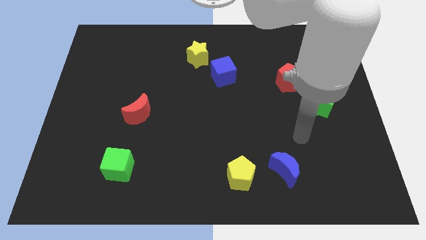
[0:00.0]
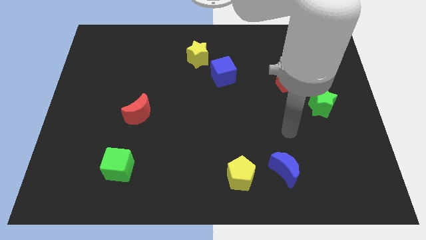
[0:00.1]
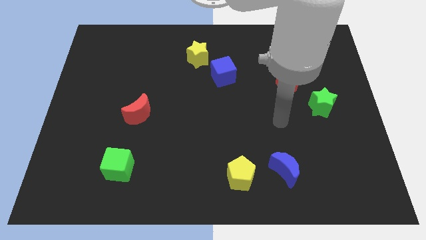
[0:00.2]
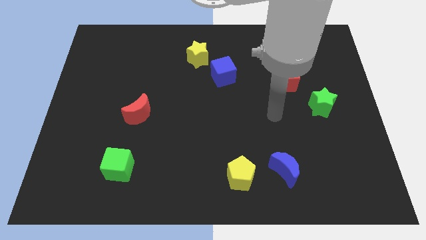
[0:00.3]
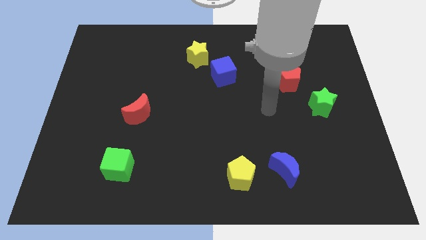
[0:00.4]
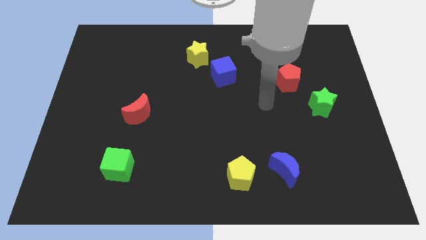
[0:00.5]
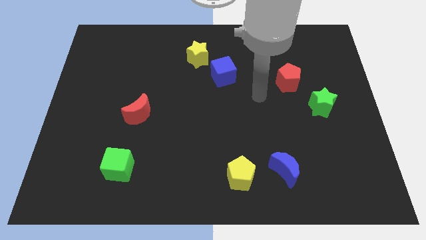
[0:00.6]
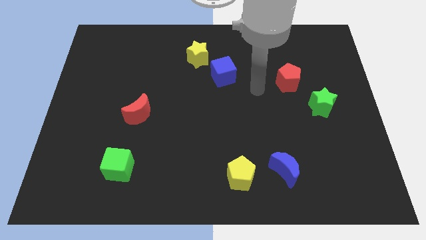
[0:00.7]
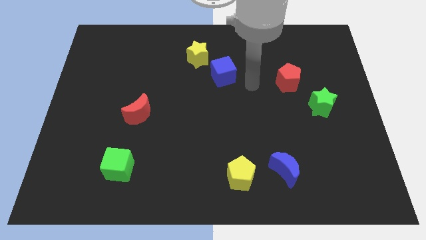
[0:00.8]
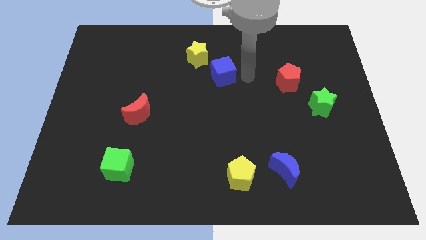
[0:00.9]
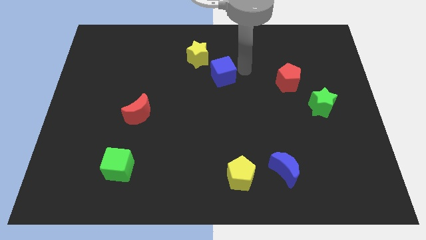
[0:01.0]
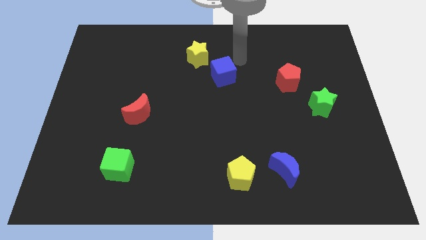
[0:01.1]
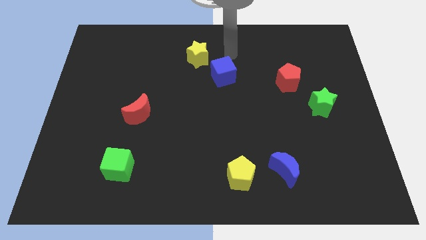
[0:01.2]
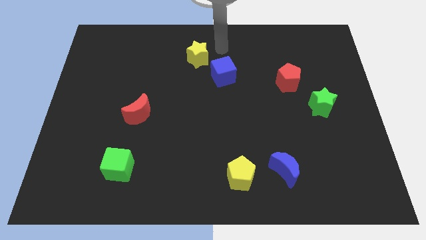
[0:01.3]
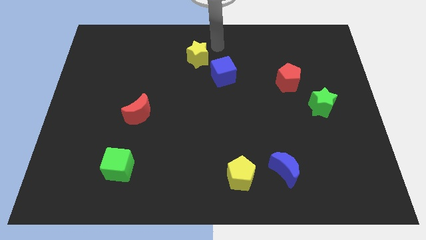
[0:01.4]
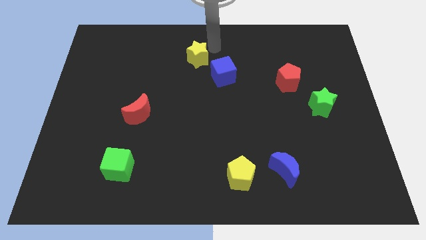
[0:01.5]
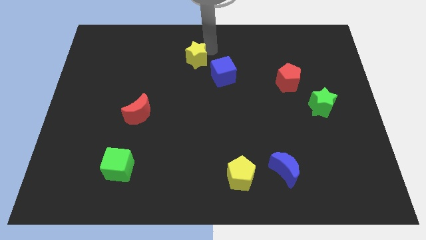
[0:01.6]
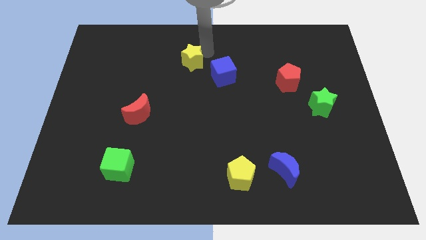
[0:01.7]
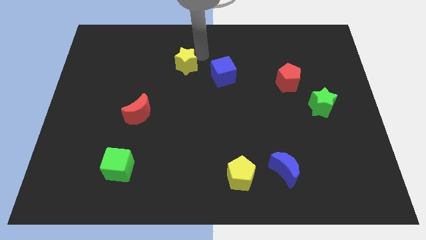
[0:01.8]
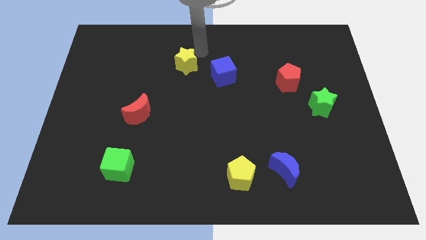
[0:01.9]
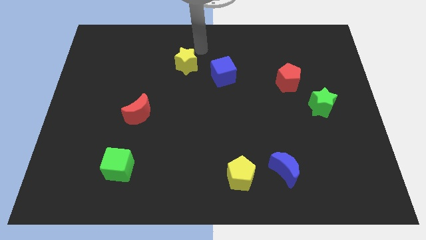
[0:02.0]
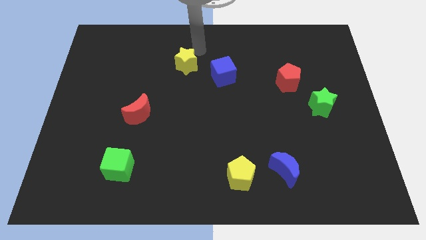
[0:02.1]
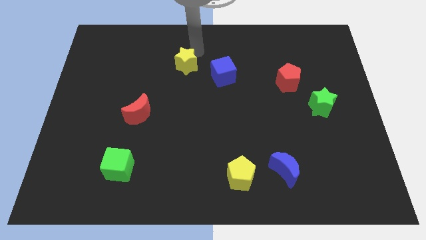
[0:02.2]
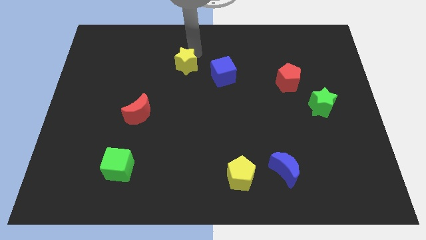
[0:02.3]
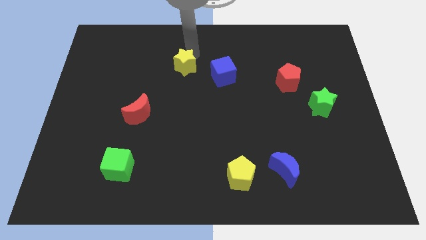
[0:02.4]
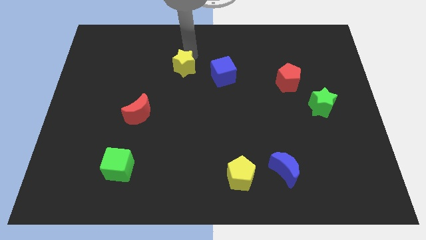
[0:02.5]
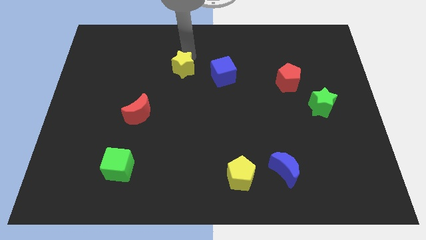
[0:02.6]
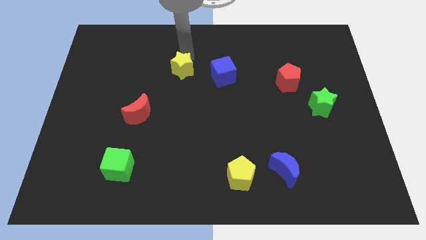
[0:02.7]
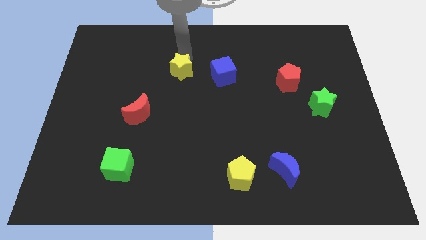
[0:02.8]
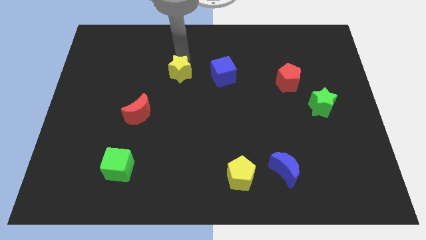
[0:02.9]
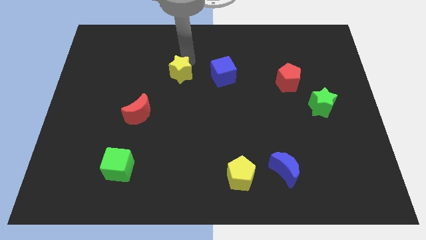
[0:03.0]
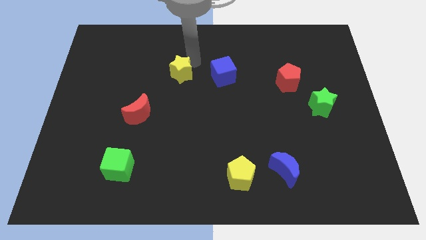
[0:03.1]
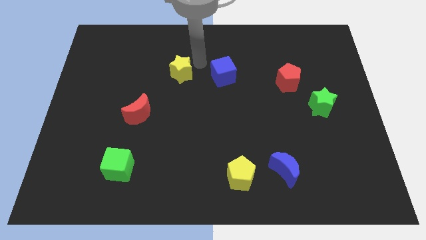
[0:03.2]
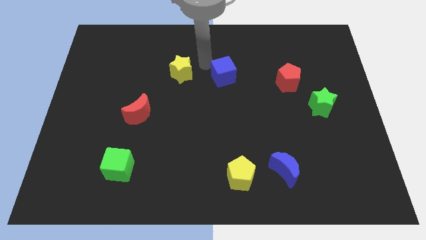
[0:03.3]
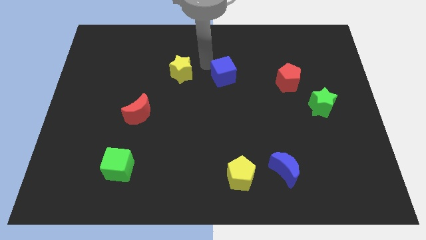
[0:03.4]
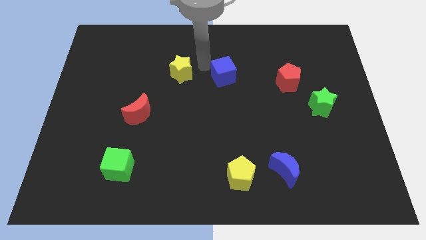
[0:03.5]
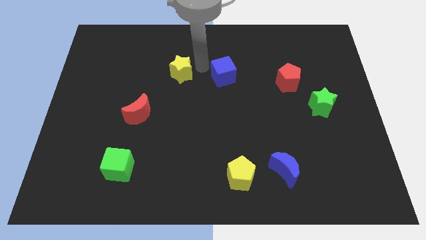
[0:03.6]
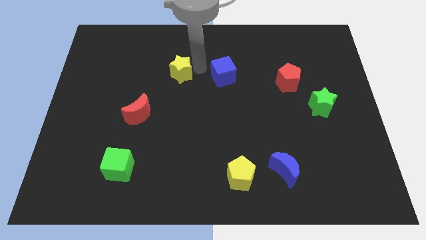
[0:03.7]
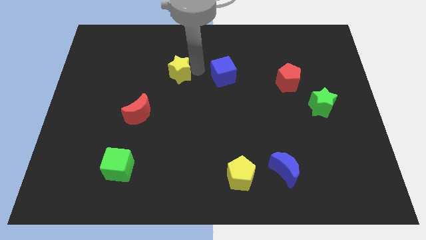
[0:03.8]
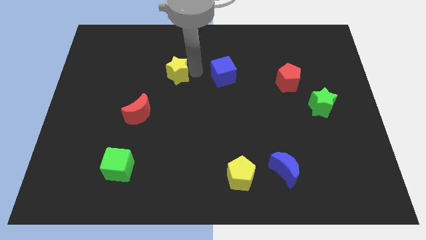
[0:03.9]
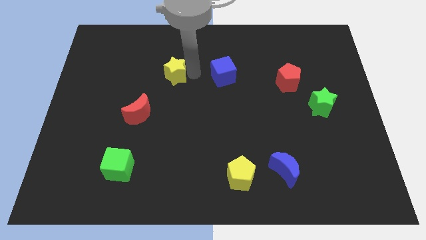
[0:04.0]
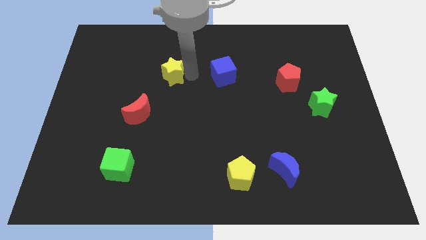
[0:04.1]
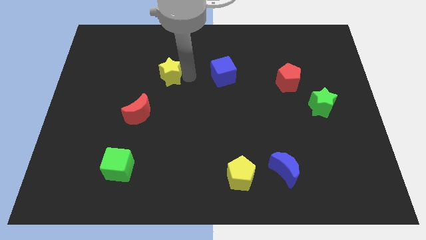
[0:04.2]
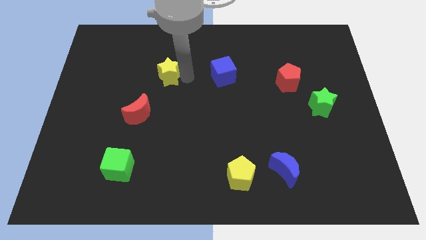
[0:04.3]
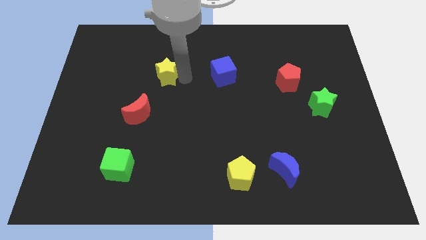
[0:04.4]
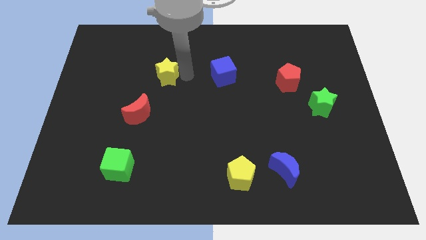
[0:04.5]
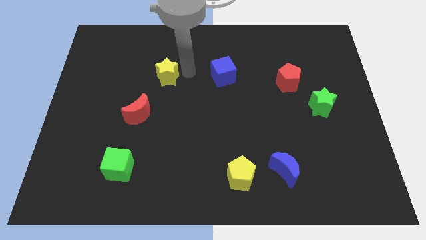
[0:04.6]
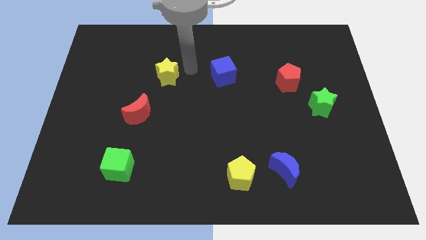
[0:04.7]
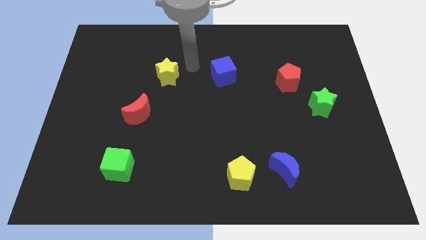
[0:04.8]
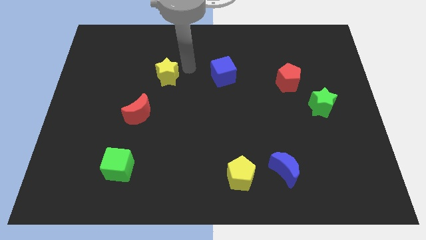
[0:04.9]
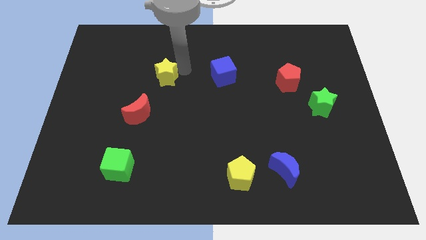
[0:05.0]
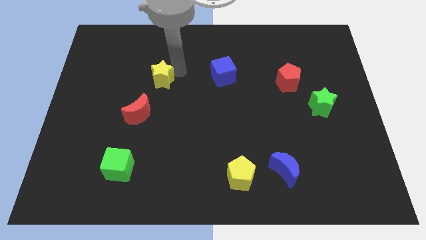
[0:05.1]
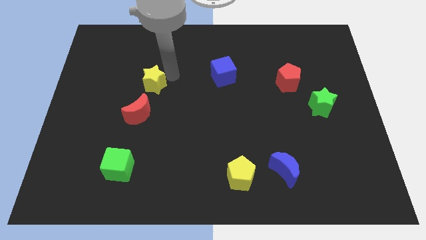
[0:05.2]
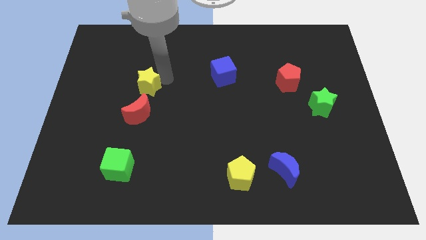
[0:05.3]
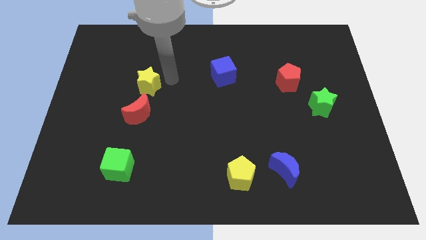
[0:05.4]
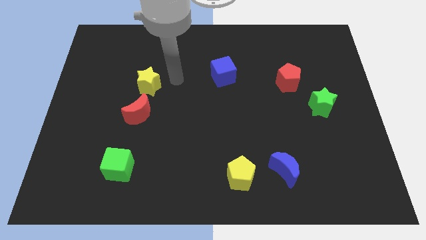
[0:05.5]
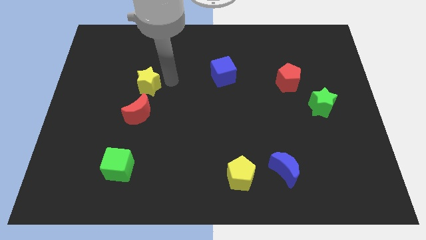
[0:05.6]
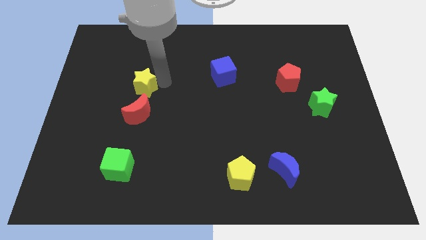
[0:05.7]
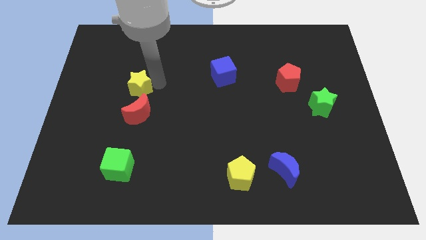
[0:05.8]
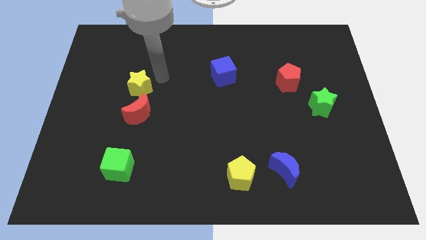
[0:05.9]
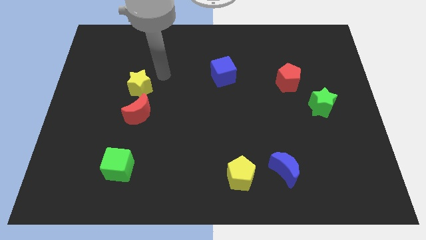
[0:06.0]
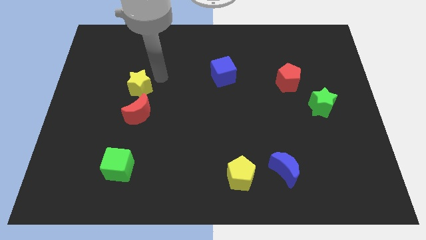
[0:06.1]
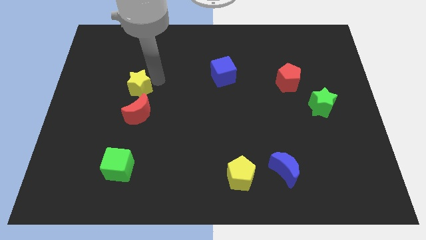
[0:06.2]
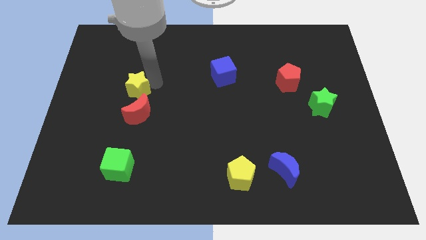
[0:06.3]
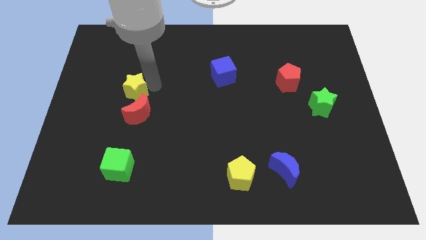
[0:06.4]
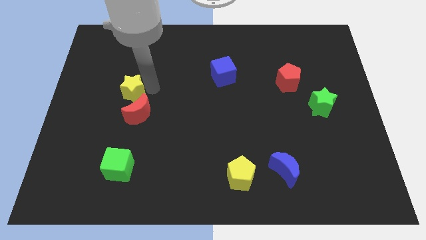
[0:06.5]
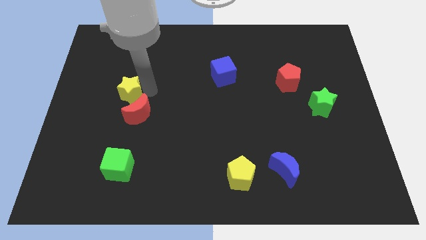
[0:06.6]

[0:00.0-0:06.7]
move the yellow star downwards and left diagonally

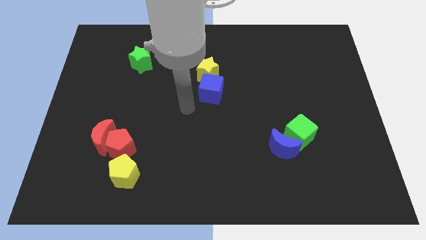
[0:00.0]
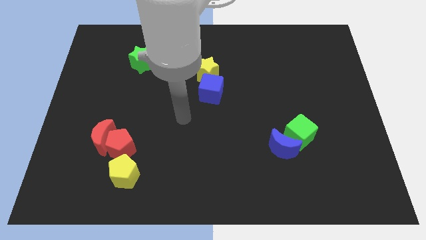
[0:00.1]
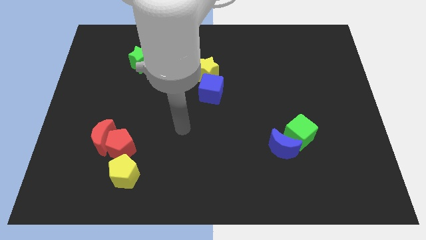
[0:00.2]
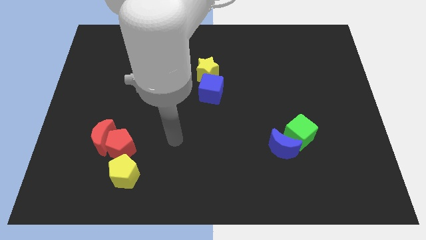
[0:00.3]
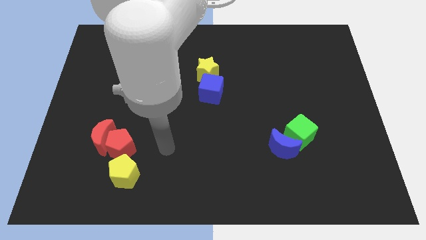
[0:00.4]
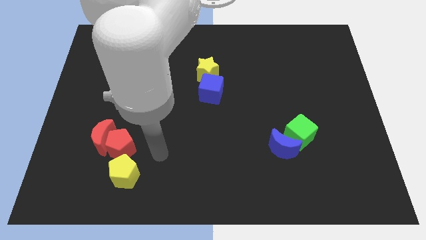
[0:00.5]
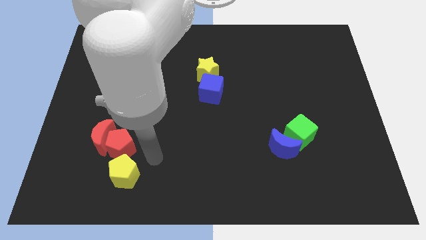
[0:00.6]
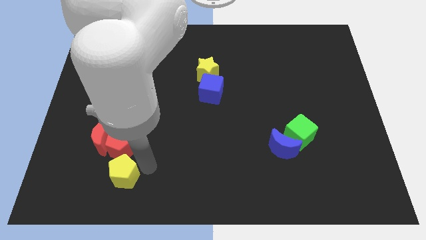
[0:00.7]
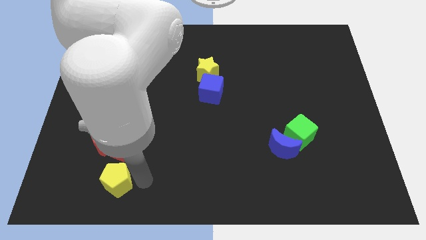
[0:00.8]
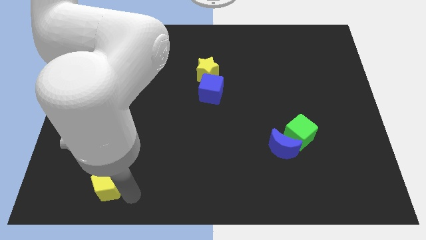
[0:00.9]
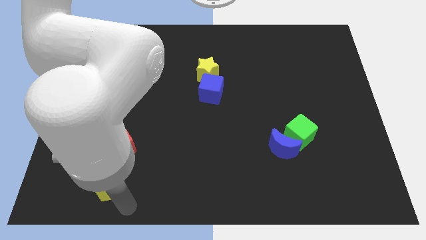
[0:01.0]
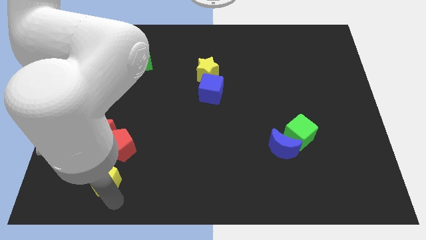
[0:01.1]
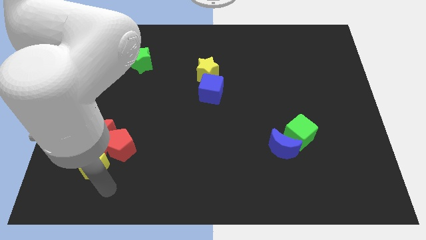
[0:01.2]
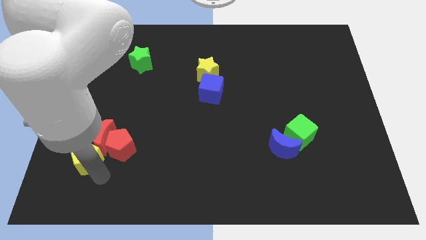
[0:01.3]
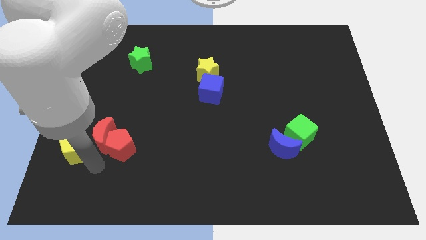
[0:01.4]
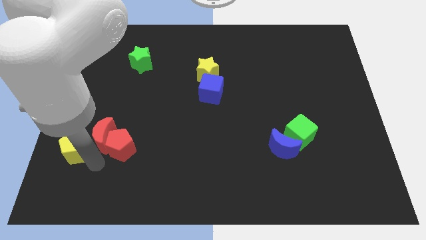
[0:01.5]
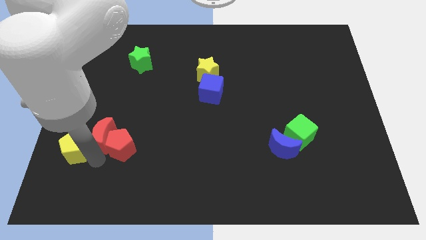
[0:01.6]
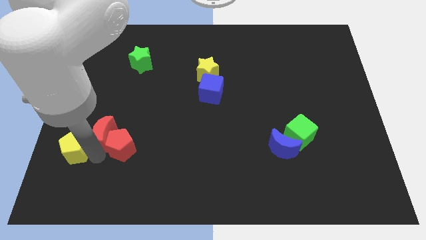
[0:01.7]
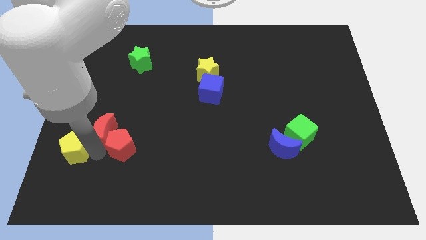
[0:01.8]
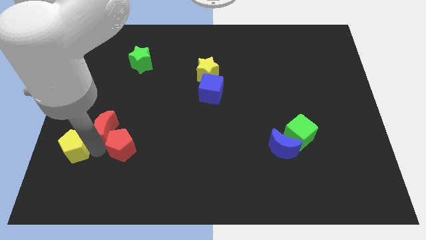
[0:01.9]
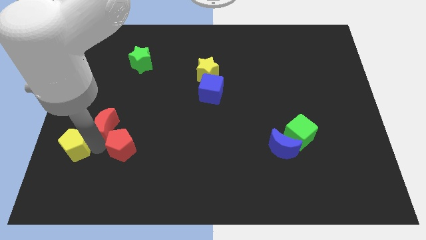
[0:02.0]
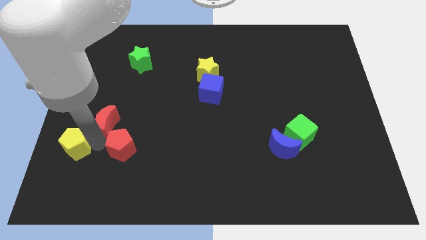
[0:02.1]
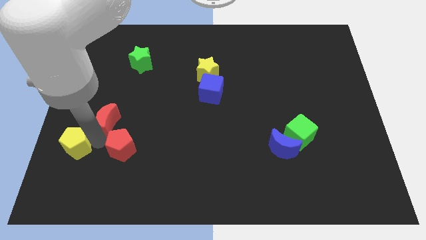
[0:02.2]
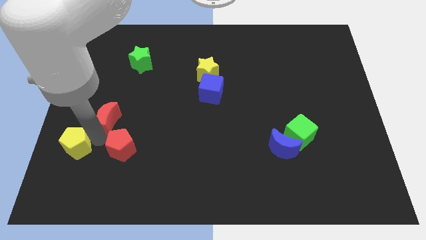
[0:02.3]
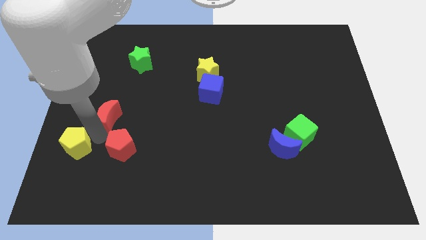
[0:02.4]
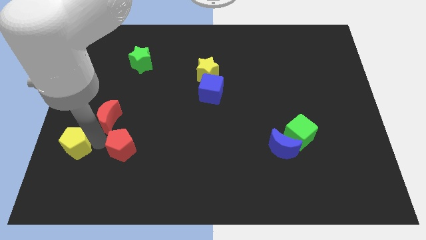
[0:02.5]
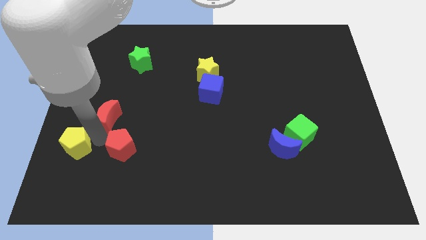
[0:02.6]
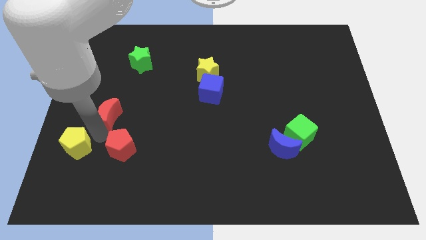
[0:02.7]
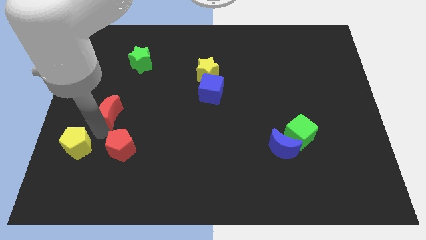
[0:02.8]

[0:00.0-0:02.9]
push the red moon a bit upwards
